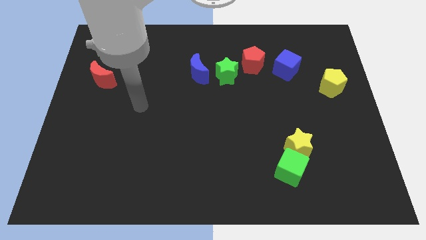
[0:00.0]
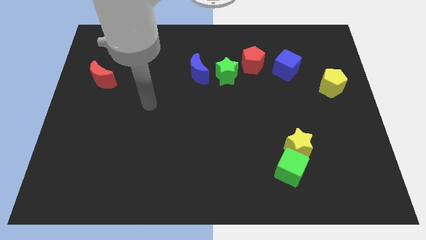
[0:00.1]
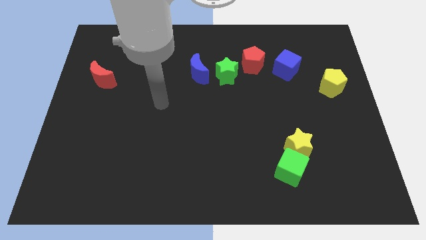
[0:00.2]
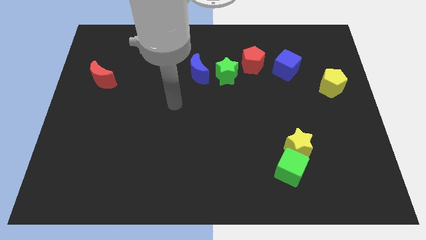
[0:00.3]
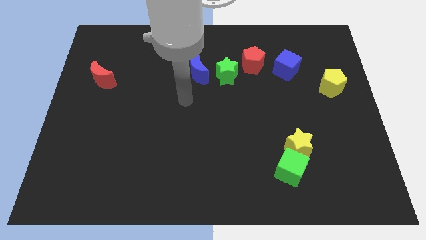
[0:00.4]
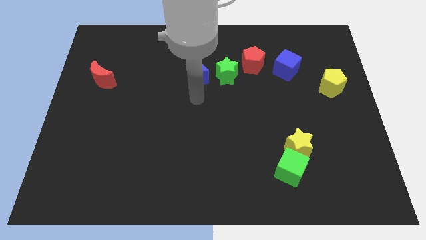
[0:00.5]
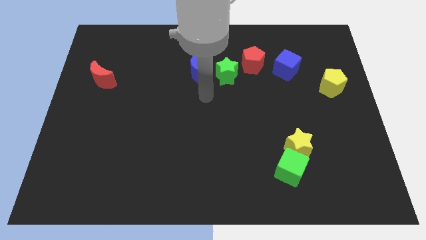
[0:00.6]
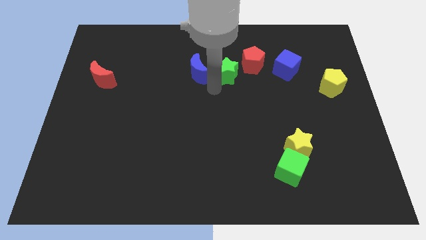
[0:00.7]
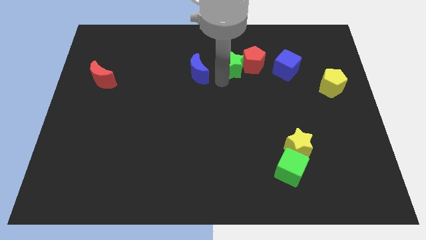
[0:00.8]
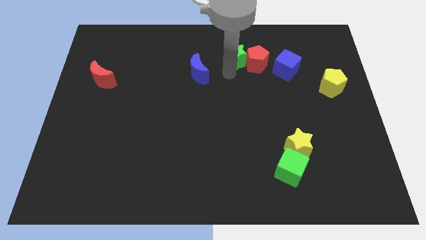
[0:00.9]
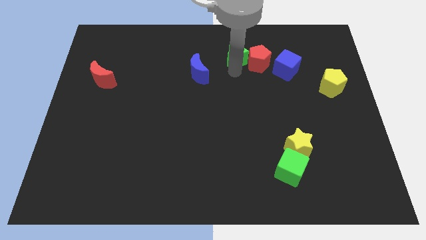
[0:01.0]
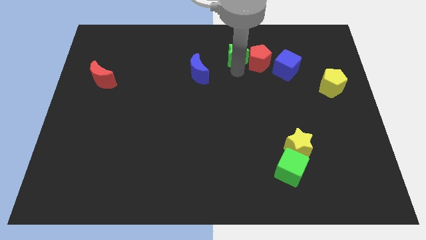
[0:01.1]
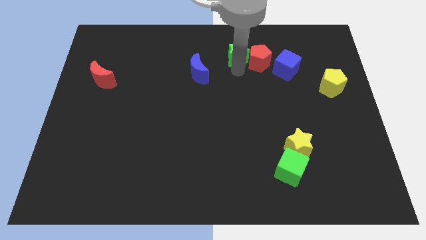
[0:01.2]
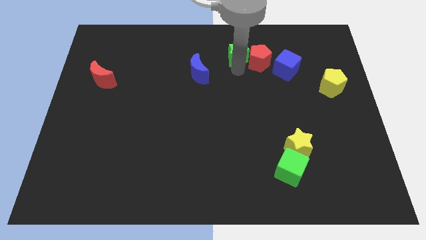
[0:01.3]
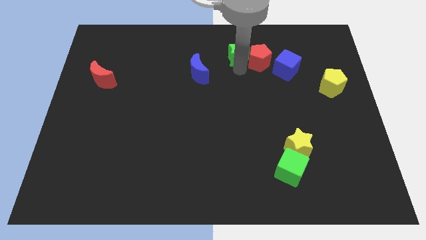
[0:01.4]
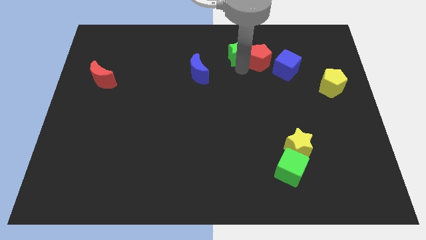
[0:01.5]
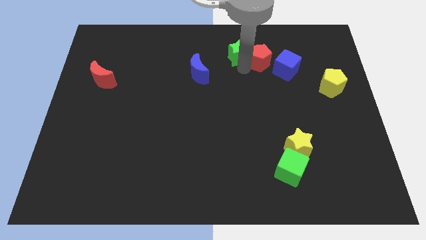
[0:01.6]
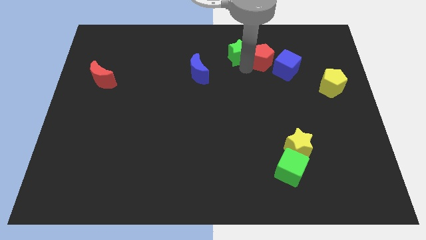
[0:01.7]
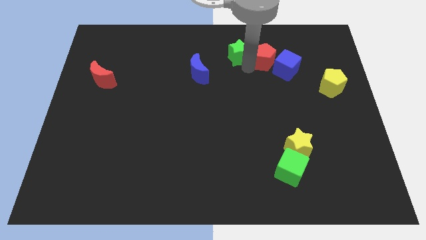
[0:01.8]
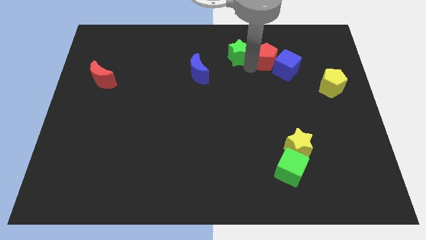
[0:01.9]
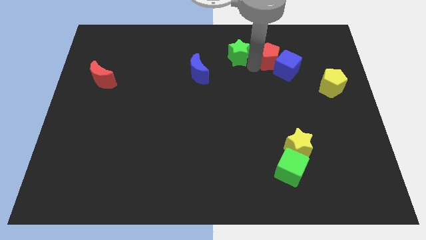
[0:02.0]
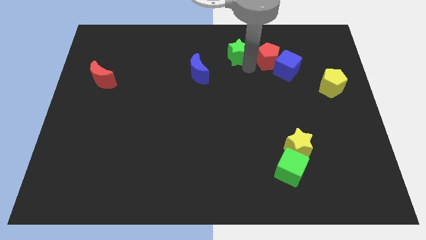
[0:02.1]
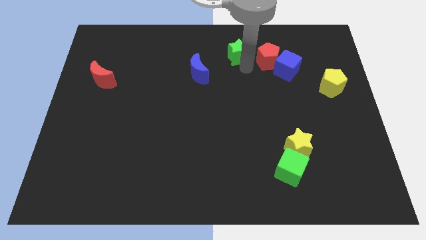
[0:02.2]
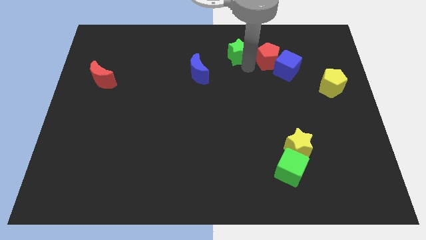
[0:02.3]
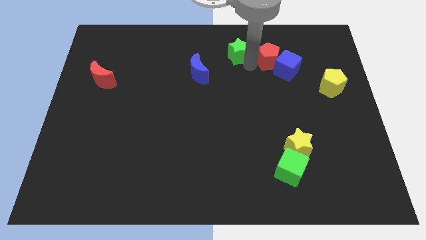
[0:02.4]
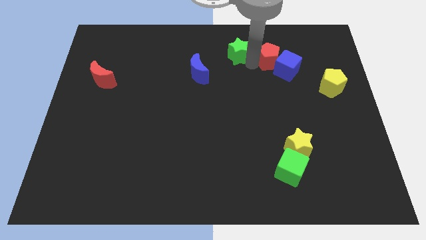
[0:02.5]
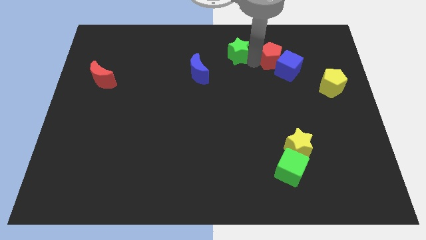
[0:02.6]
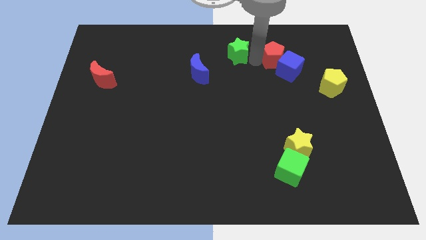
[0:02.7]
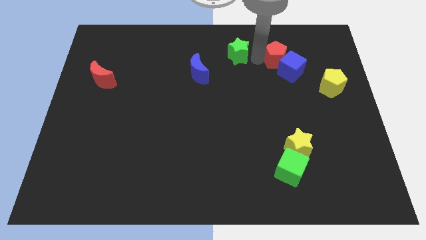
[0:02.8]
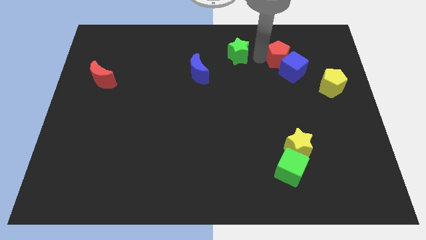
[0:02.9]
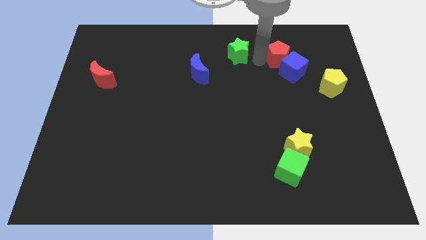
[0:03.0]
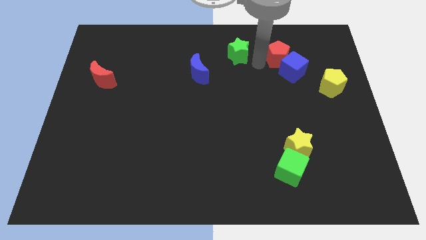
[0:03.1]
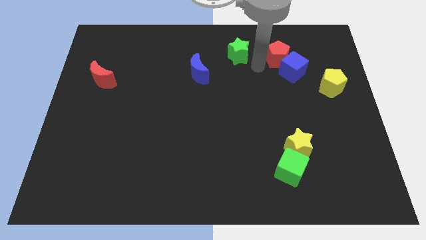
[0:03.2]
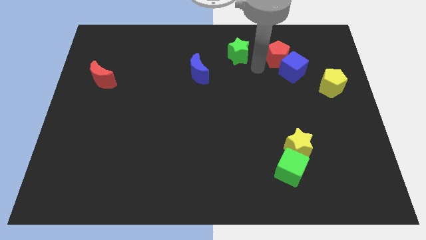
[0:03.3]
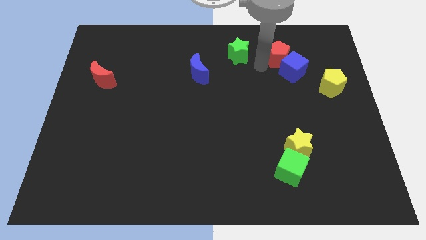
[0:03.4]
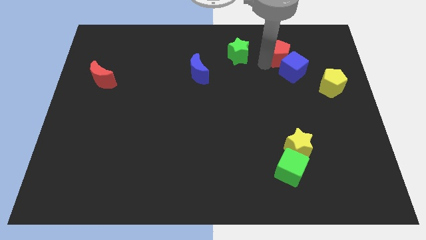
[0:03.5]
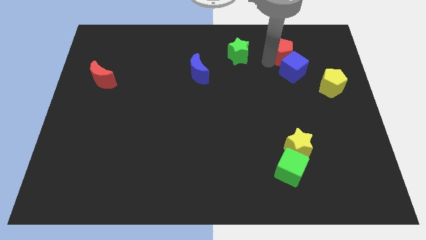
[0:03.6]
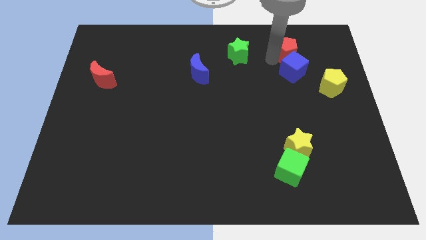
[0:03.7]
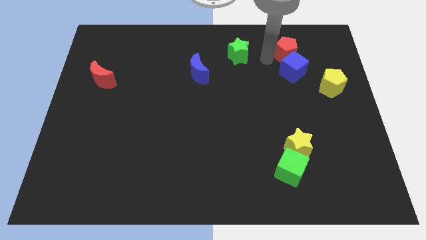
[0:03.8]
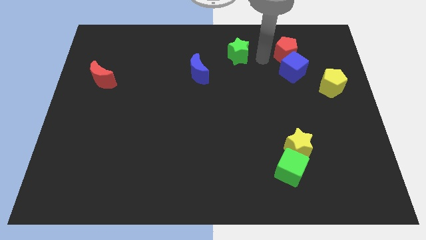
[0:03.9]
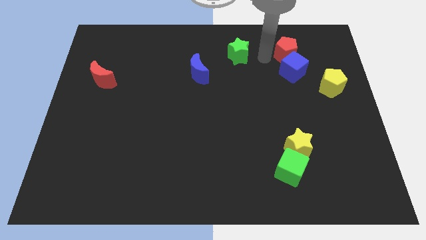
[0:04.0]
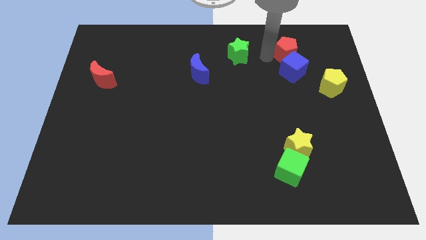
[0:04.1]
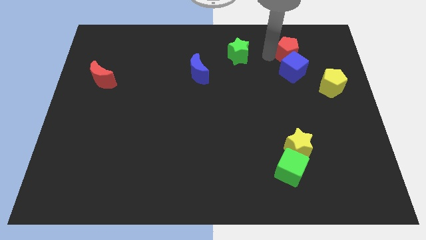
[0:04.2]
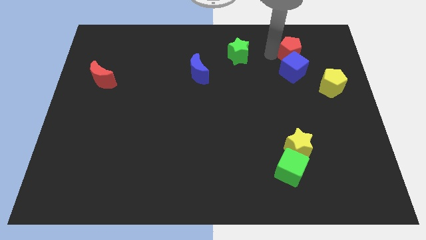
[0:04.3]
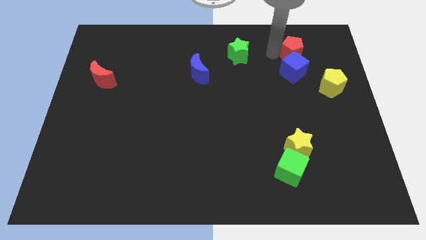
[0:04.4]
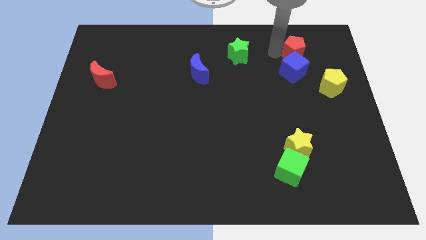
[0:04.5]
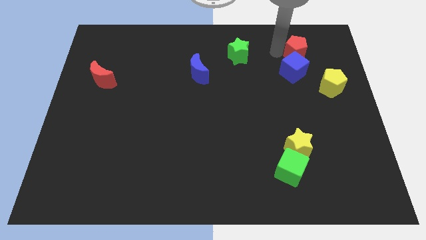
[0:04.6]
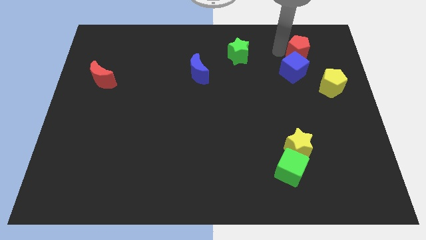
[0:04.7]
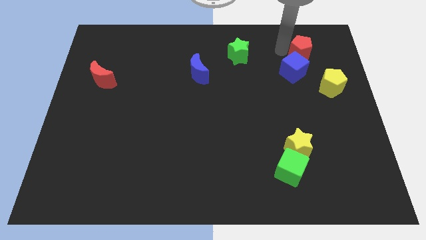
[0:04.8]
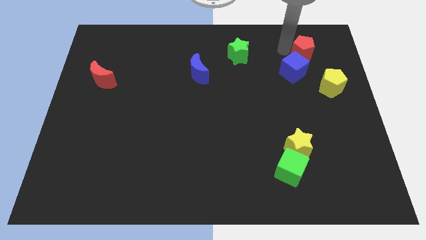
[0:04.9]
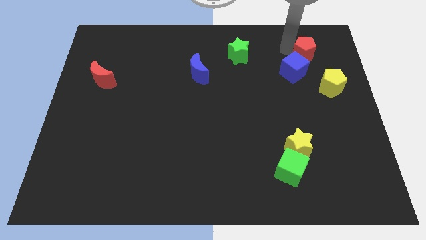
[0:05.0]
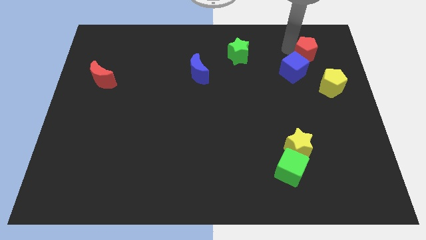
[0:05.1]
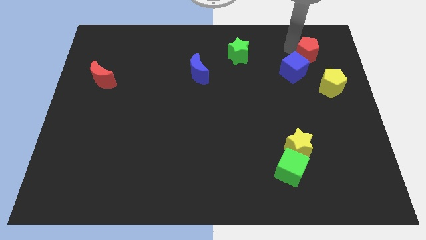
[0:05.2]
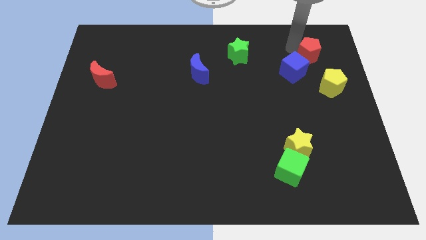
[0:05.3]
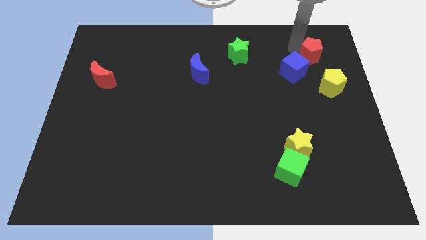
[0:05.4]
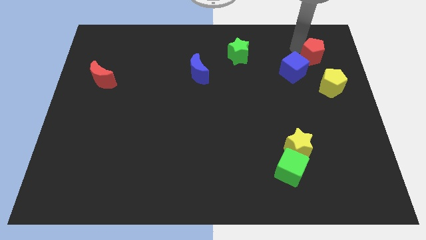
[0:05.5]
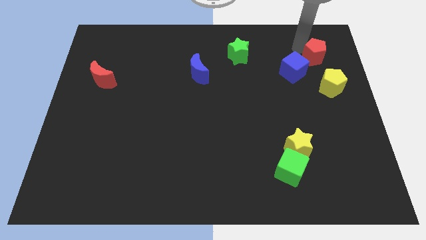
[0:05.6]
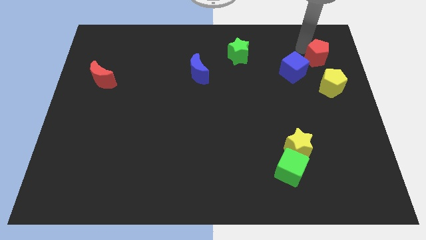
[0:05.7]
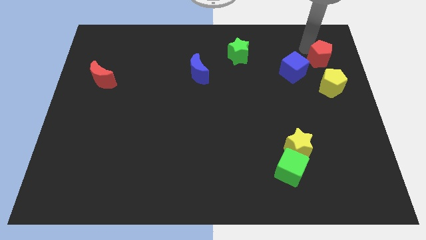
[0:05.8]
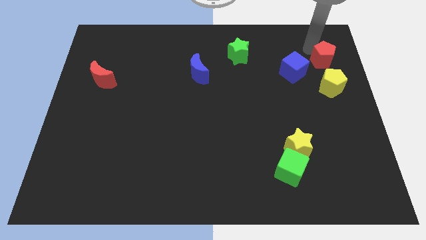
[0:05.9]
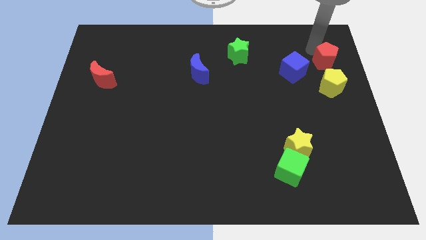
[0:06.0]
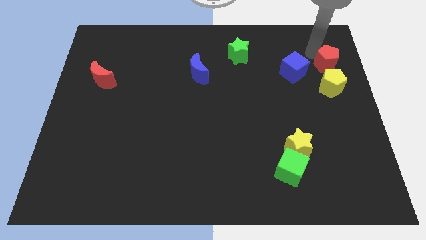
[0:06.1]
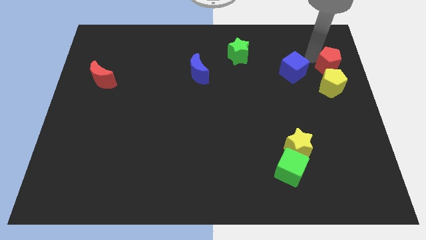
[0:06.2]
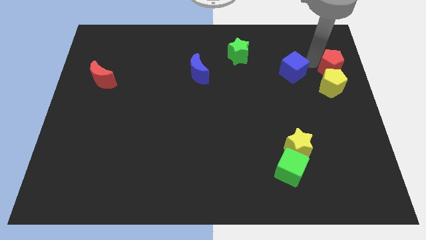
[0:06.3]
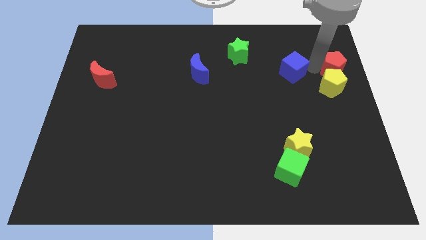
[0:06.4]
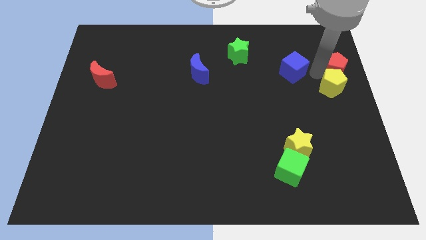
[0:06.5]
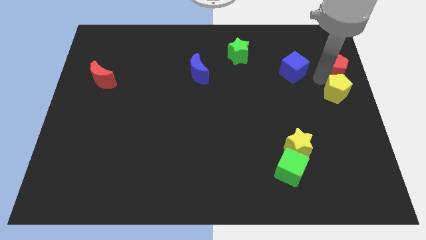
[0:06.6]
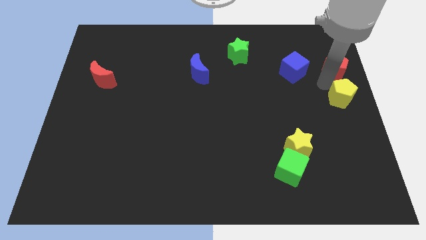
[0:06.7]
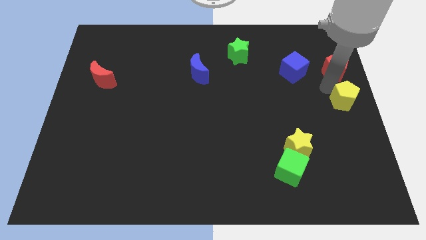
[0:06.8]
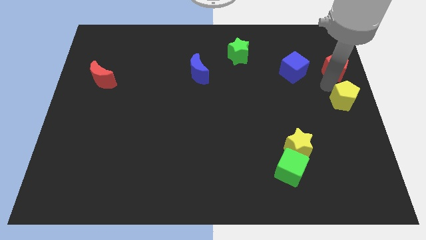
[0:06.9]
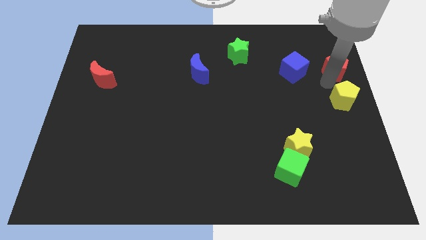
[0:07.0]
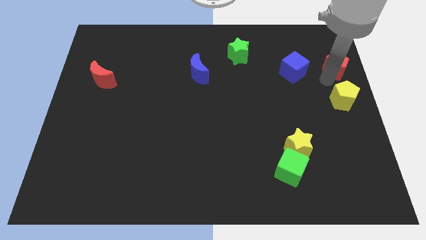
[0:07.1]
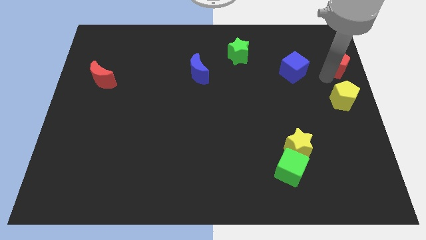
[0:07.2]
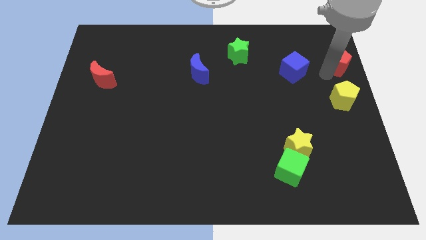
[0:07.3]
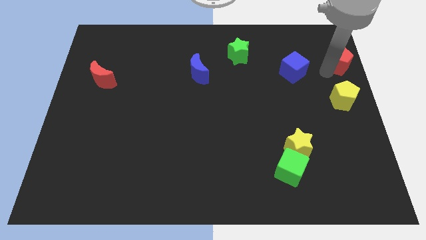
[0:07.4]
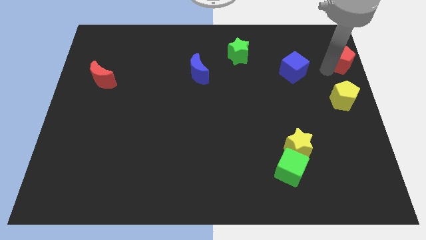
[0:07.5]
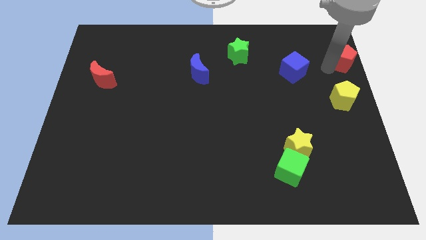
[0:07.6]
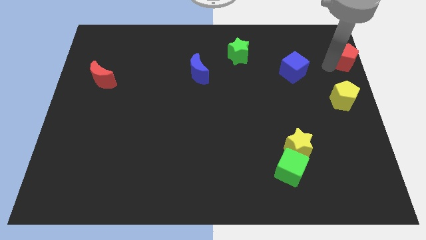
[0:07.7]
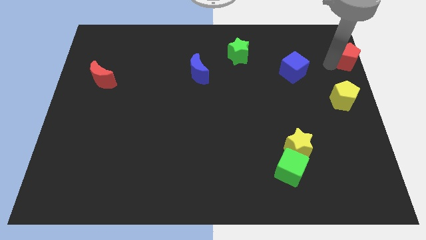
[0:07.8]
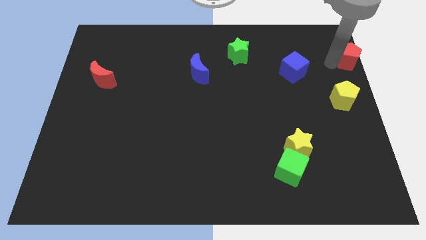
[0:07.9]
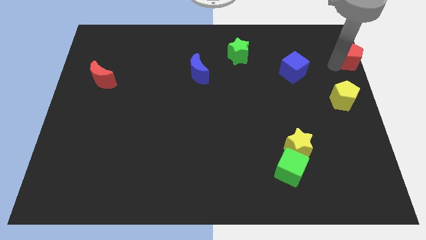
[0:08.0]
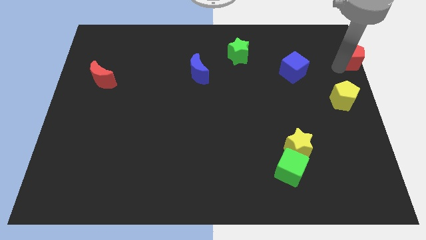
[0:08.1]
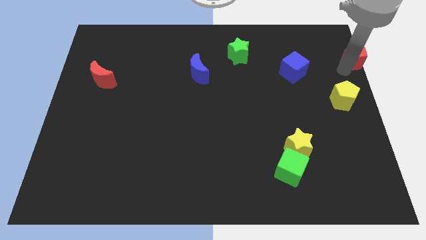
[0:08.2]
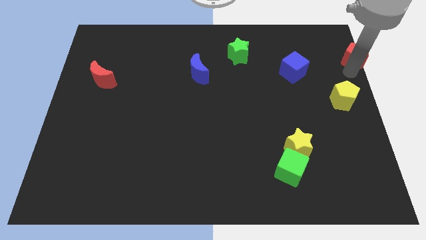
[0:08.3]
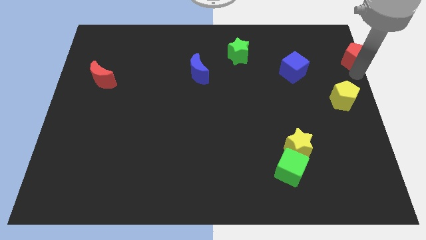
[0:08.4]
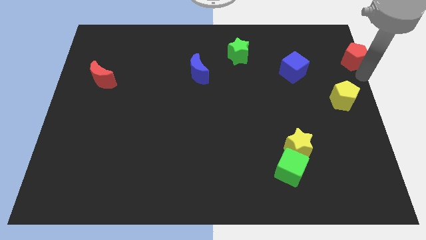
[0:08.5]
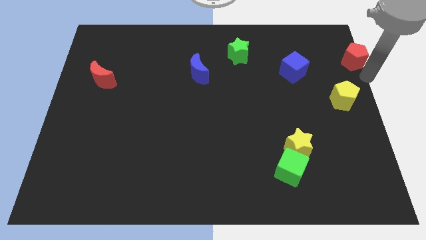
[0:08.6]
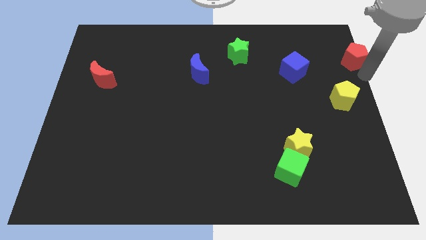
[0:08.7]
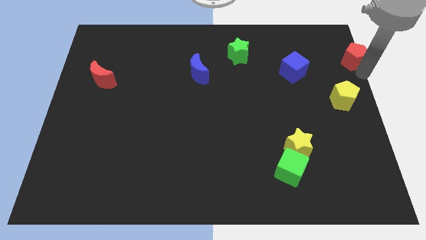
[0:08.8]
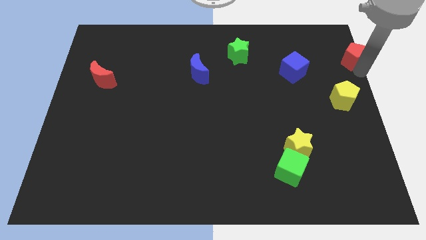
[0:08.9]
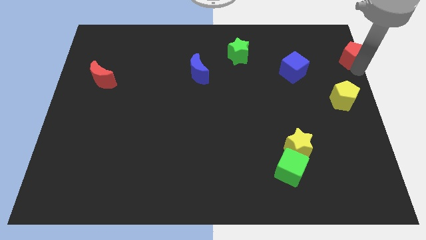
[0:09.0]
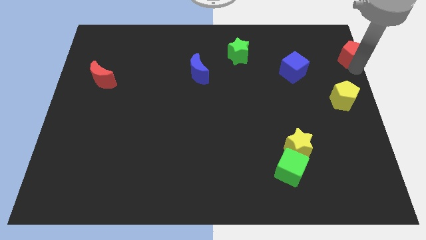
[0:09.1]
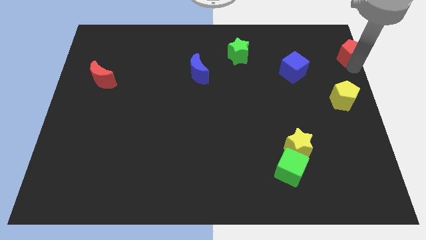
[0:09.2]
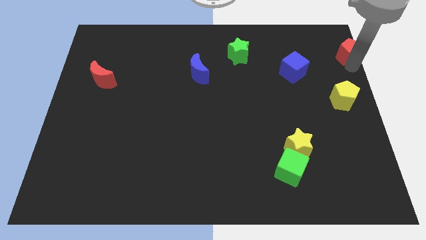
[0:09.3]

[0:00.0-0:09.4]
move the red pentagon to the top right corner
